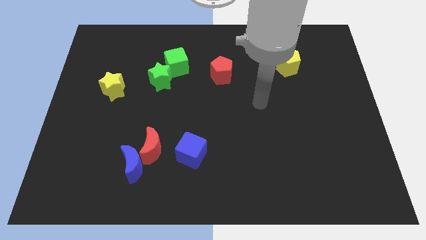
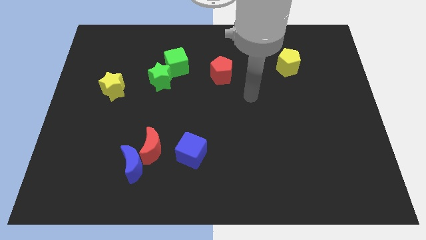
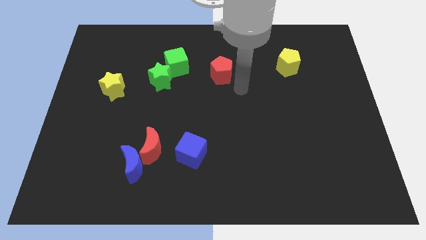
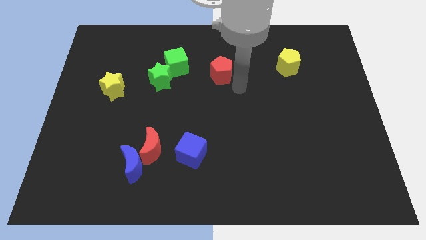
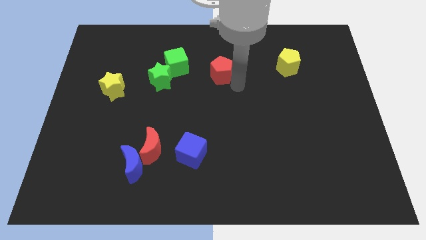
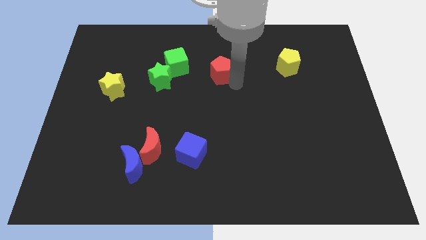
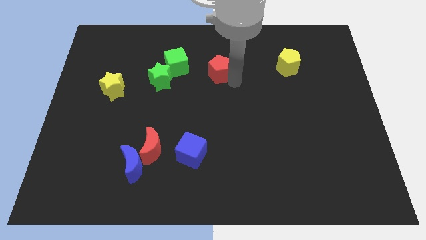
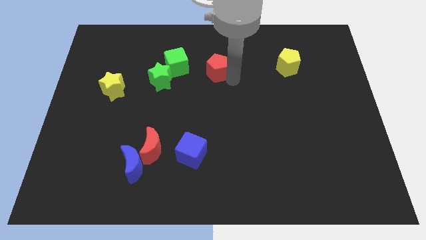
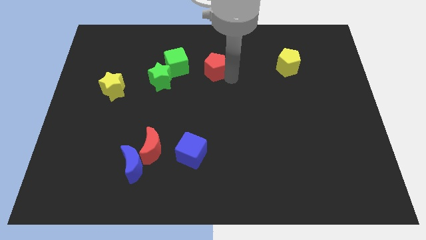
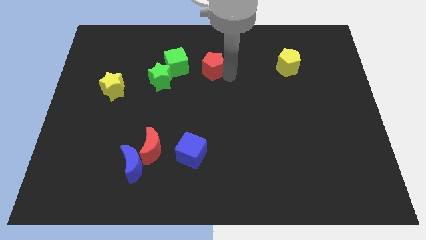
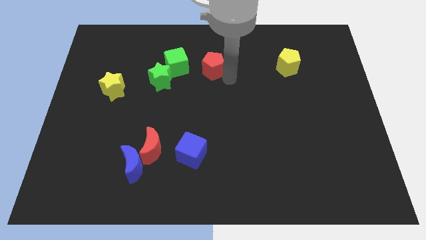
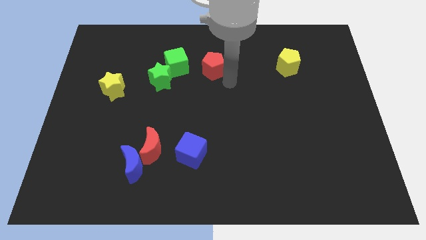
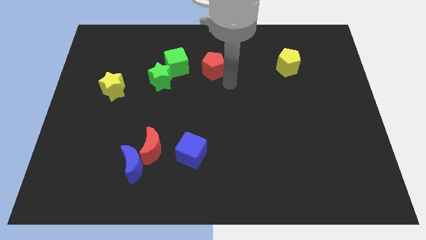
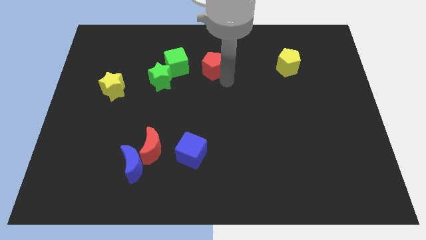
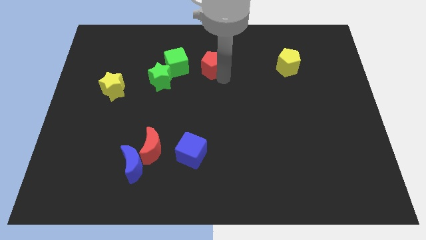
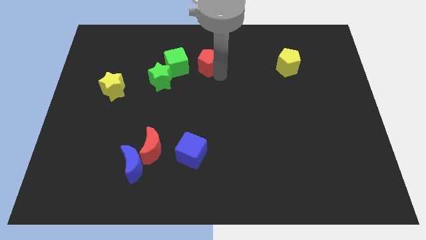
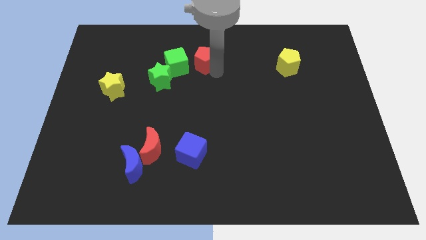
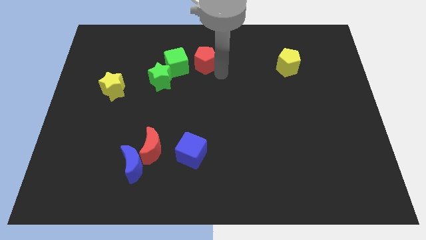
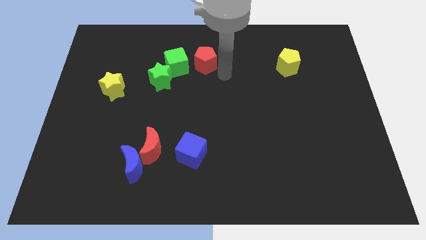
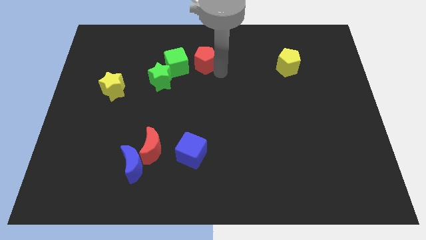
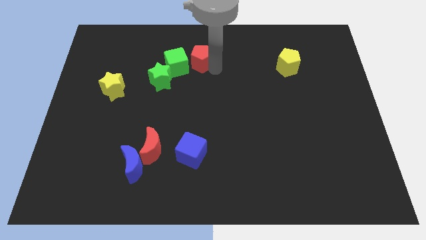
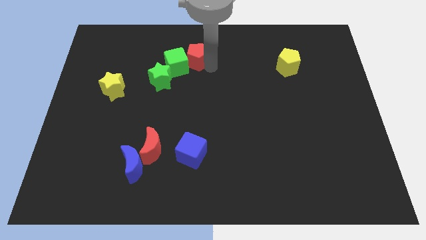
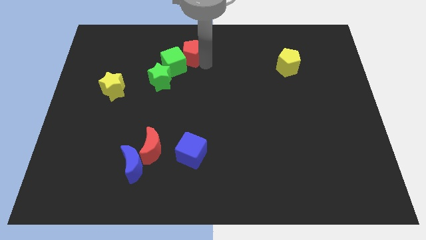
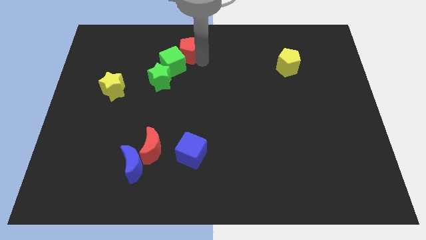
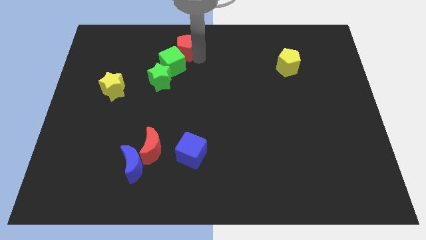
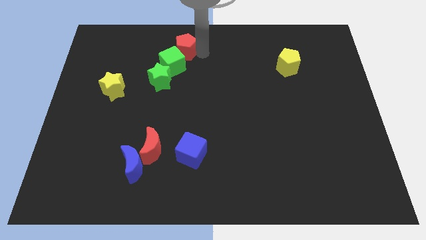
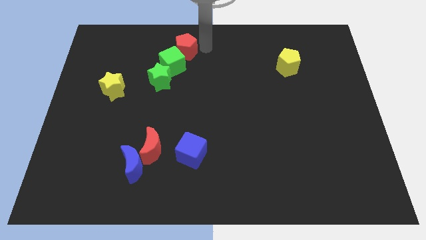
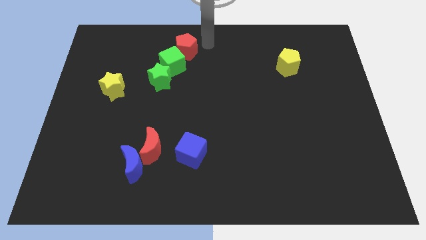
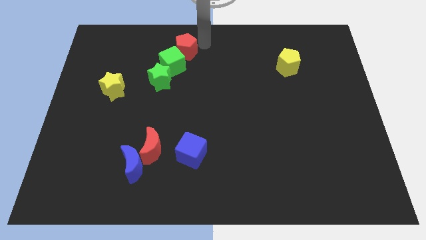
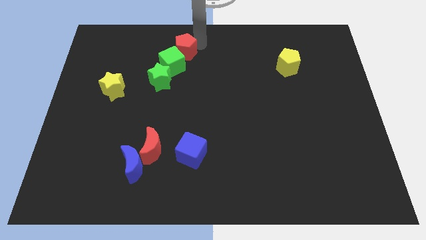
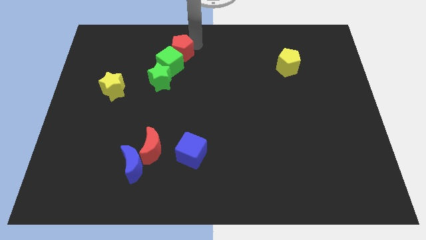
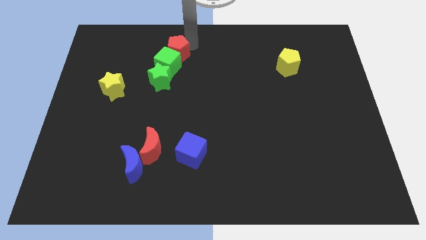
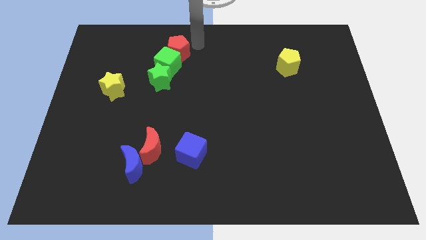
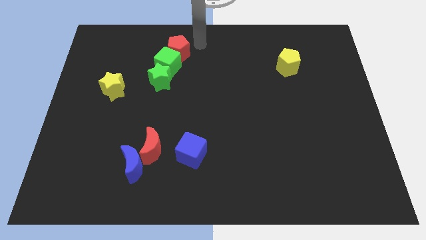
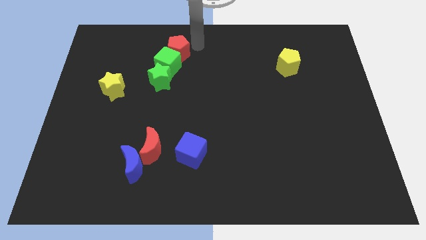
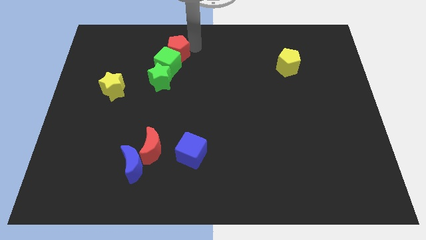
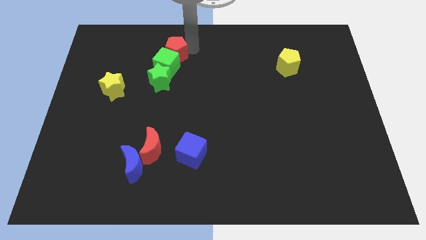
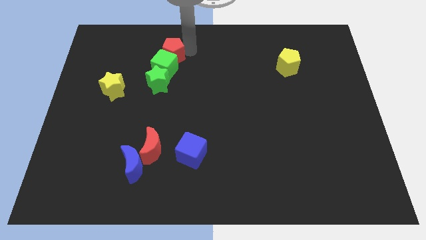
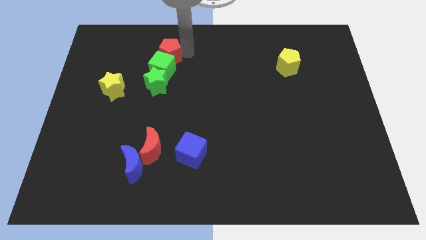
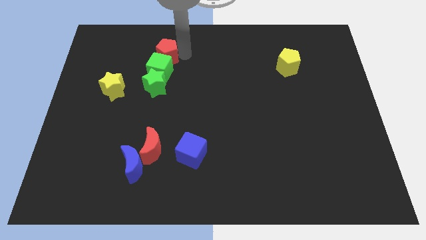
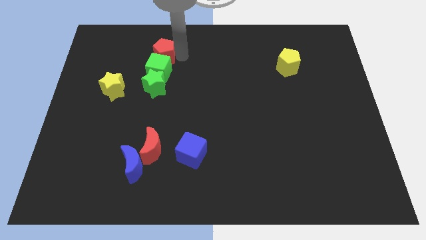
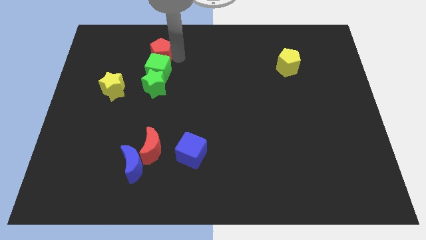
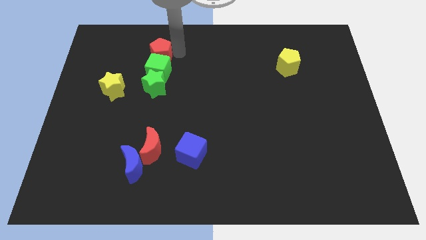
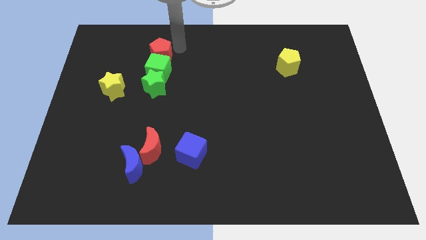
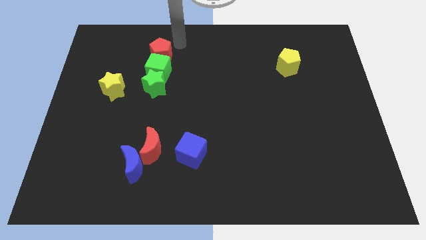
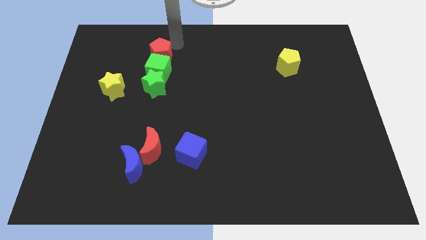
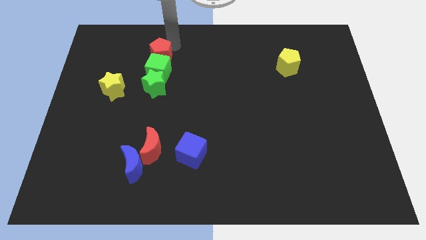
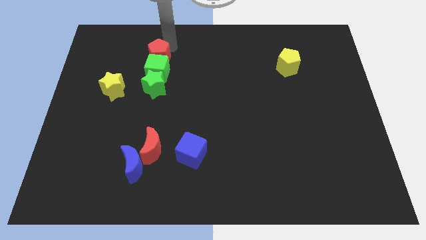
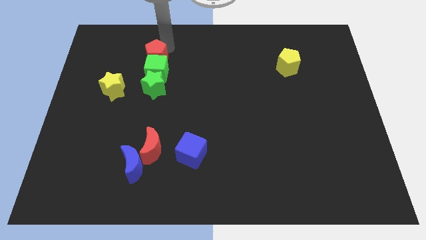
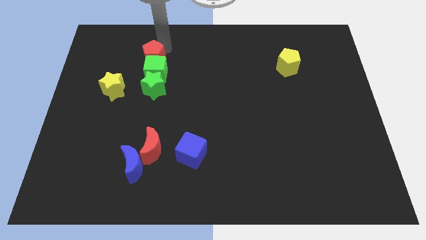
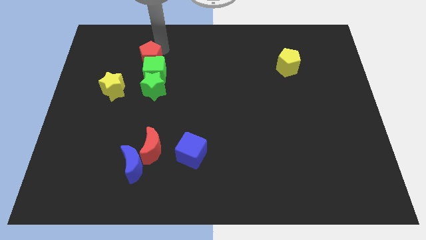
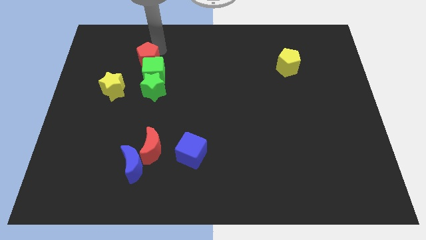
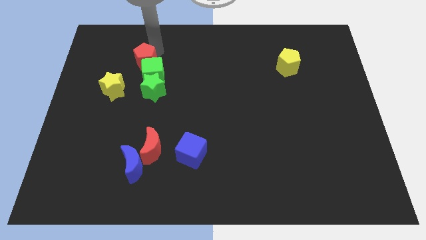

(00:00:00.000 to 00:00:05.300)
push the red pentagon to the top left side of the green star

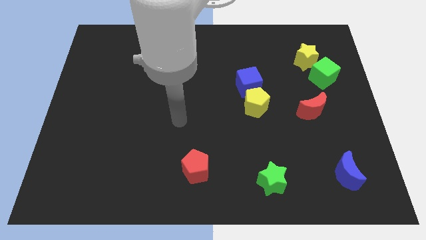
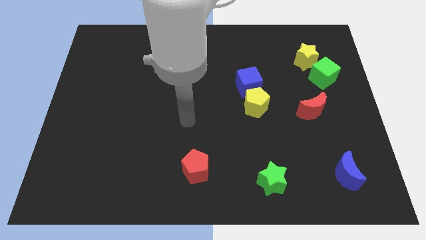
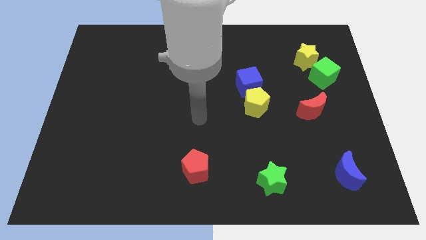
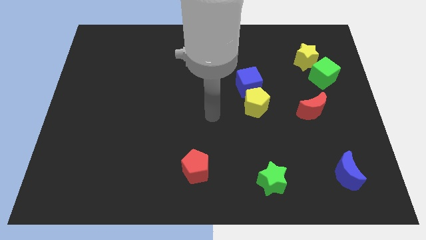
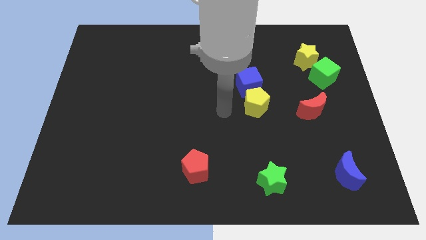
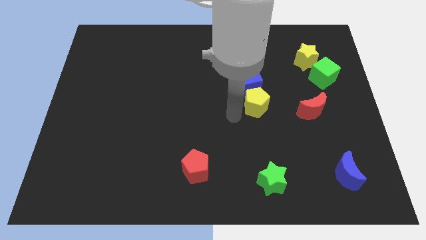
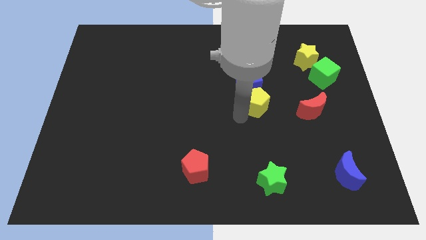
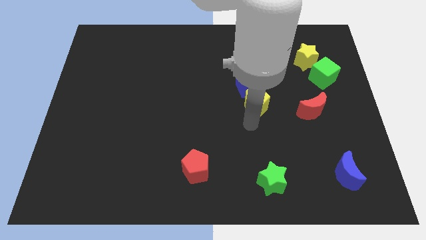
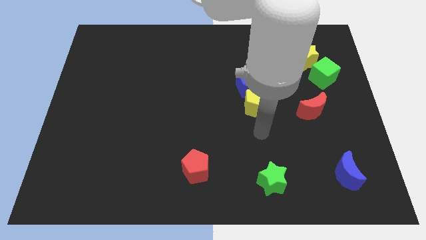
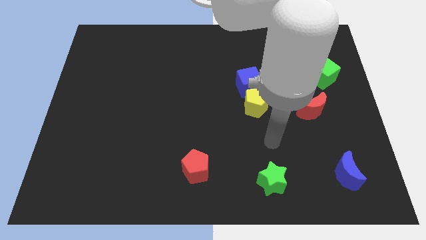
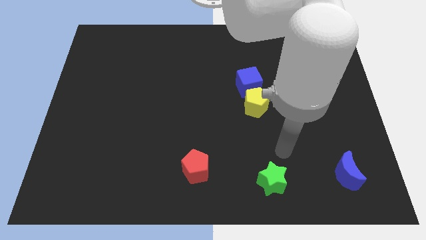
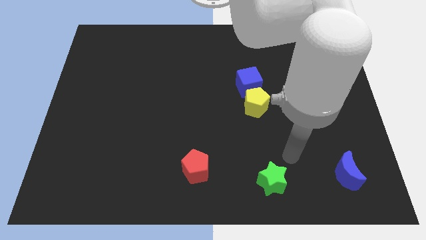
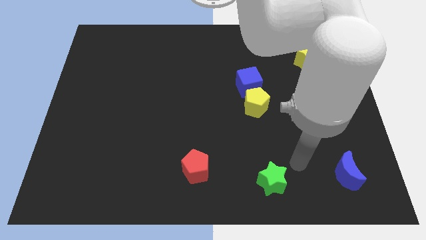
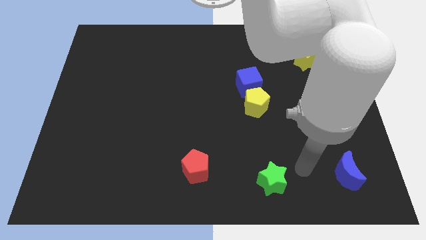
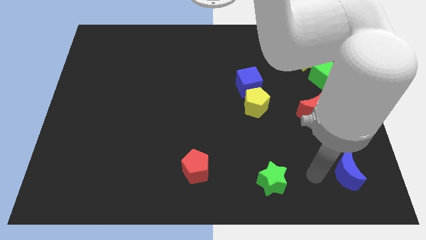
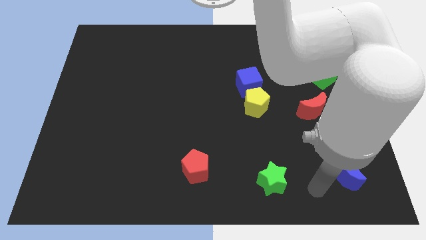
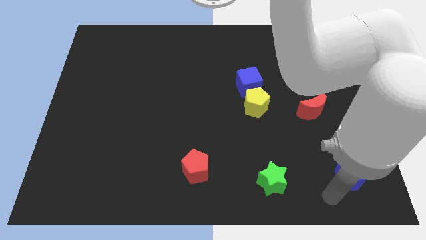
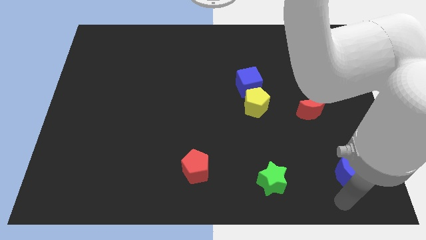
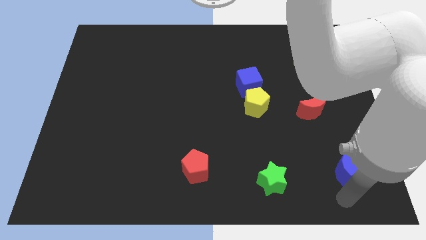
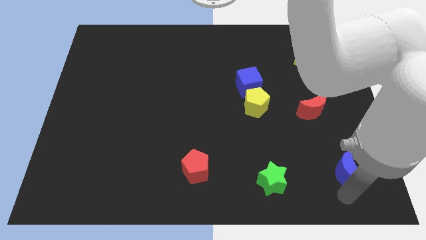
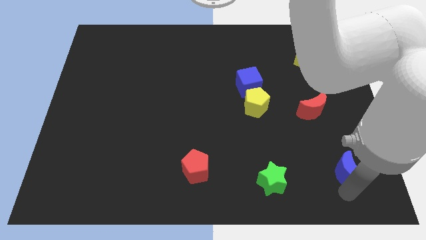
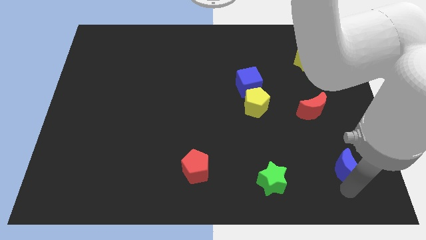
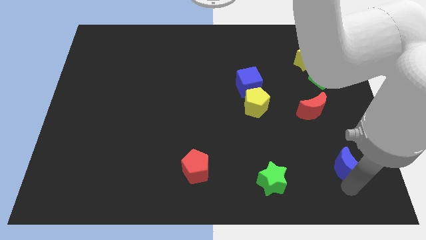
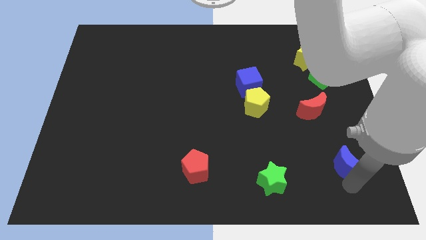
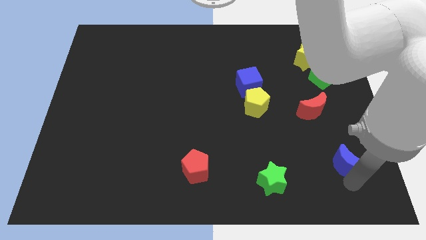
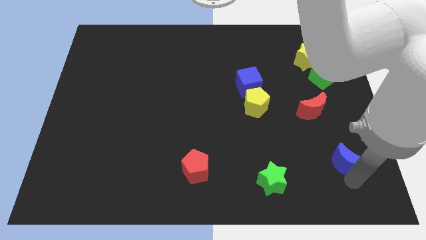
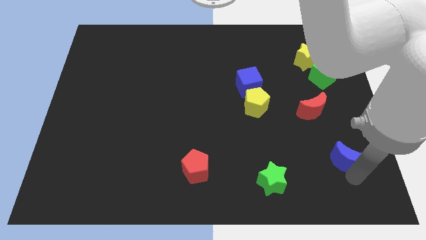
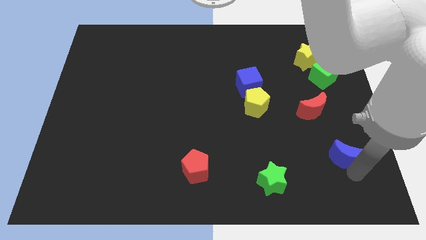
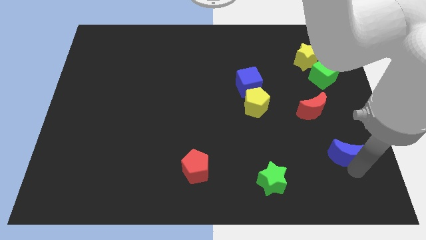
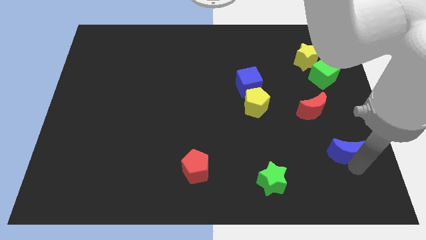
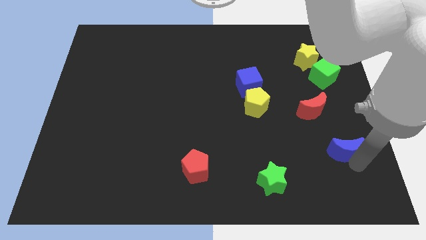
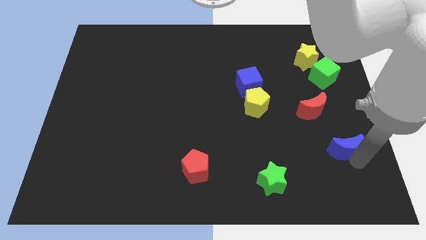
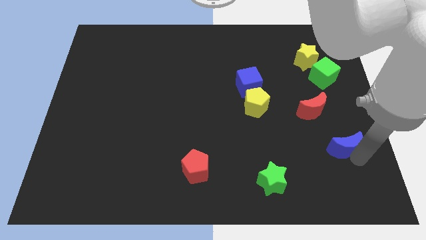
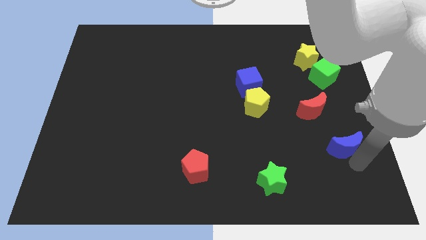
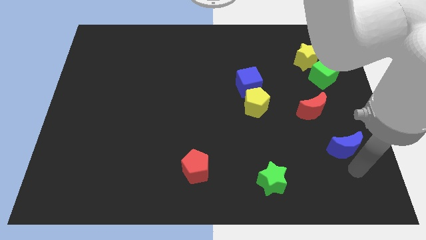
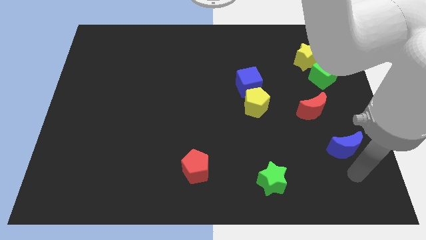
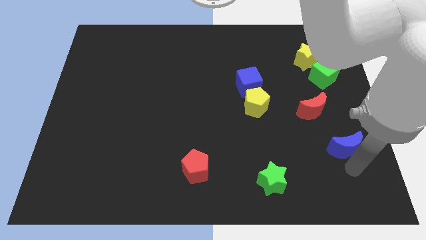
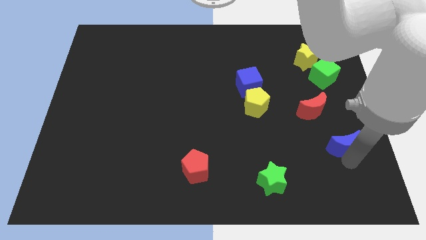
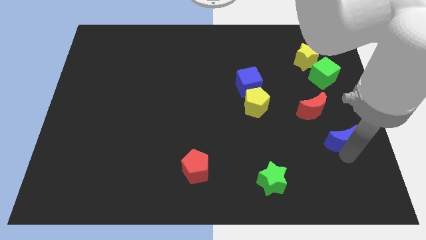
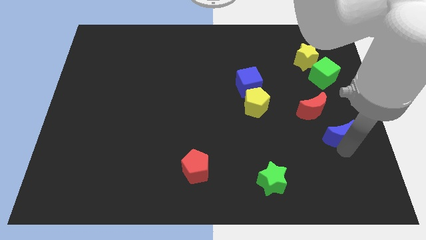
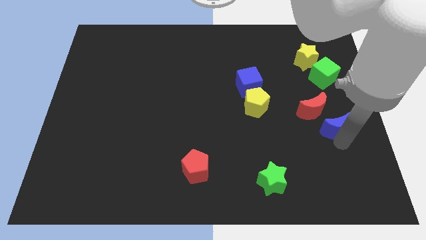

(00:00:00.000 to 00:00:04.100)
move the blue moon below the green cube
